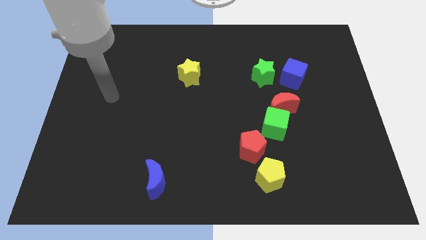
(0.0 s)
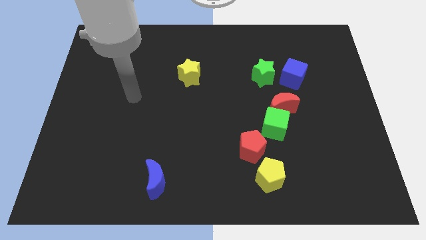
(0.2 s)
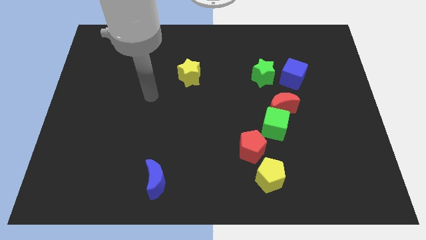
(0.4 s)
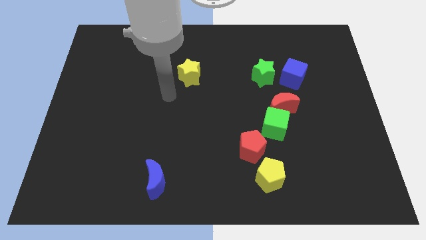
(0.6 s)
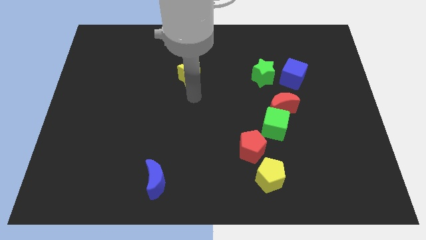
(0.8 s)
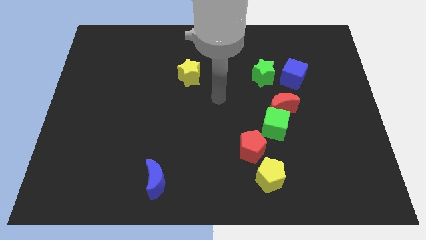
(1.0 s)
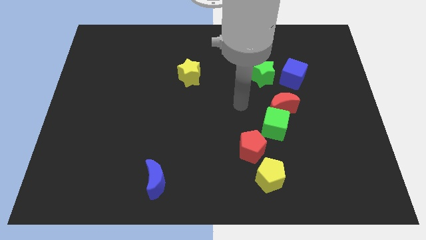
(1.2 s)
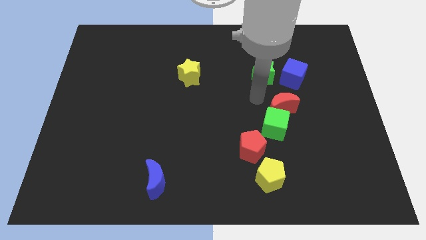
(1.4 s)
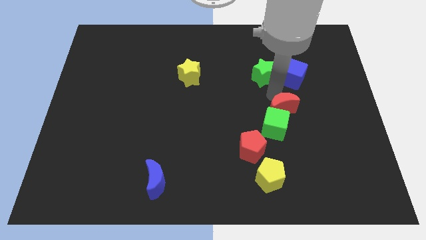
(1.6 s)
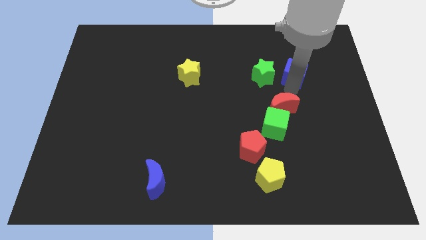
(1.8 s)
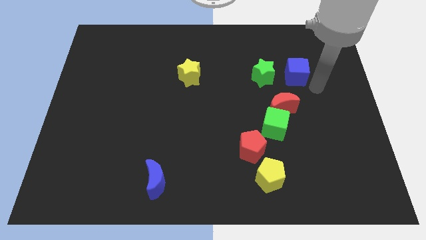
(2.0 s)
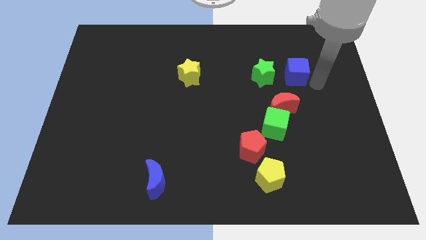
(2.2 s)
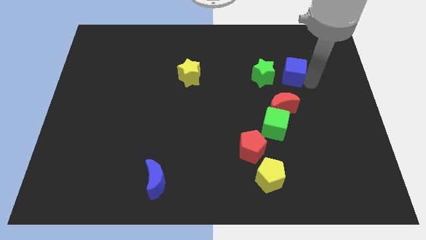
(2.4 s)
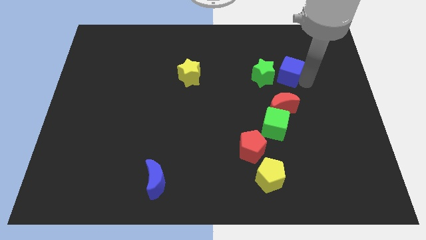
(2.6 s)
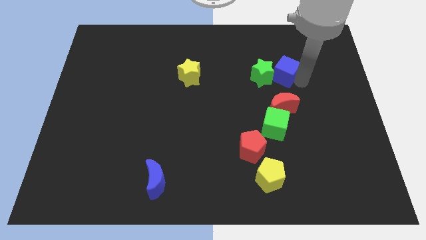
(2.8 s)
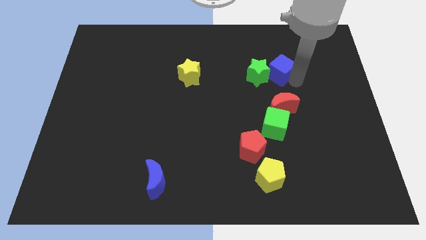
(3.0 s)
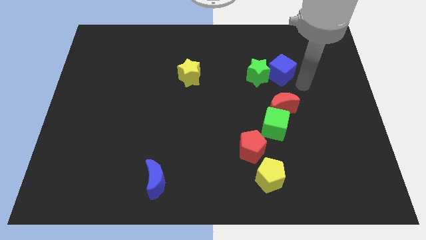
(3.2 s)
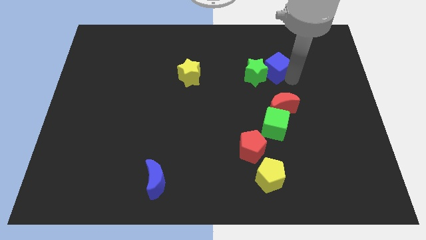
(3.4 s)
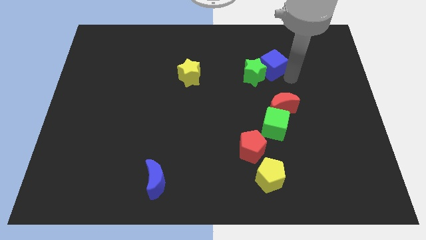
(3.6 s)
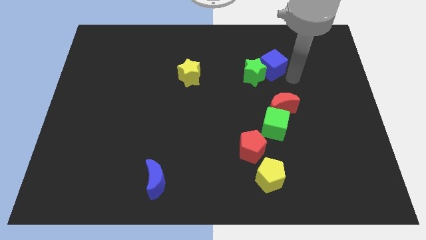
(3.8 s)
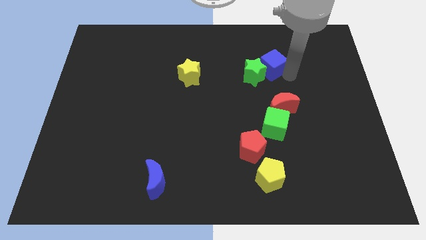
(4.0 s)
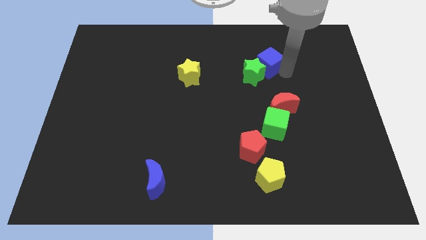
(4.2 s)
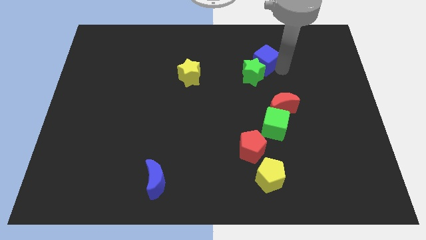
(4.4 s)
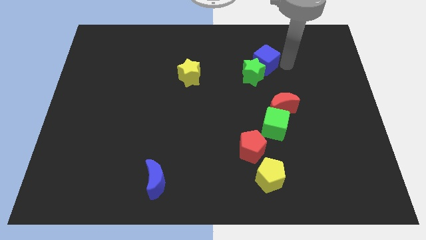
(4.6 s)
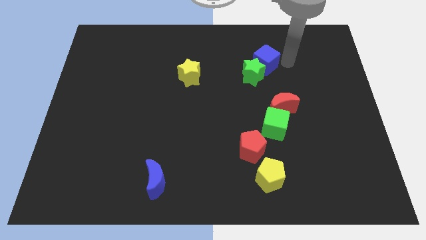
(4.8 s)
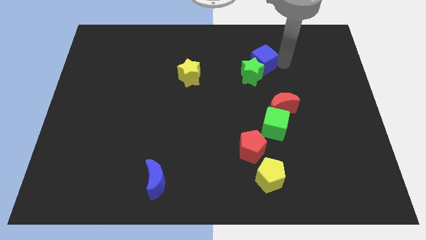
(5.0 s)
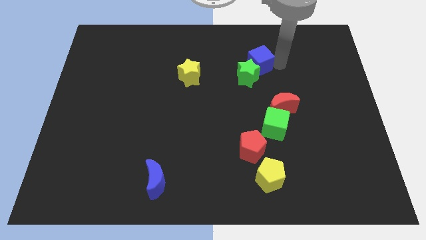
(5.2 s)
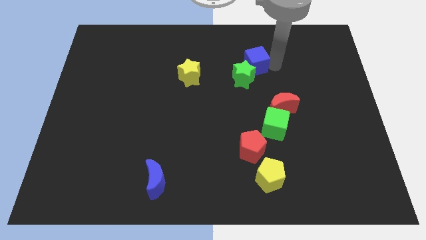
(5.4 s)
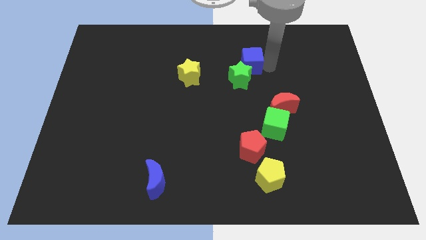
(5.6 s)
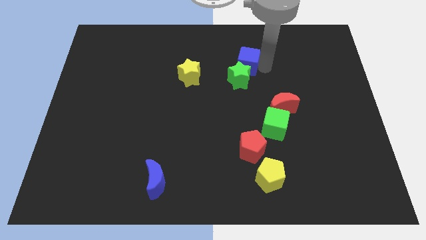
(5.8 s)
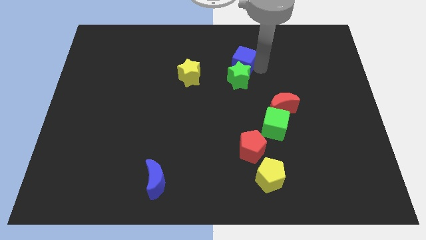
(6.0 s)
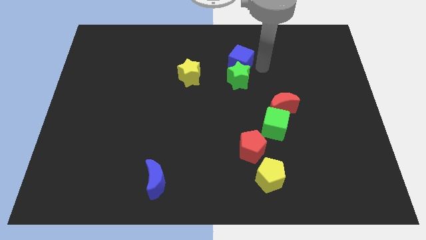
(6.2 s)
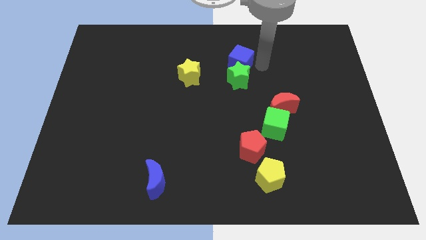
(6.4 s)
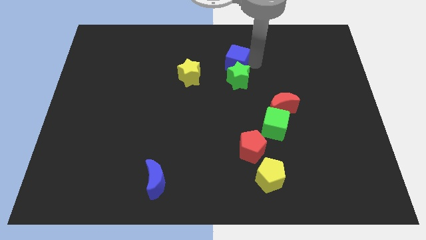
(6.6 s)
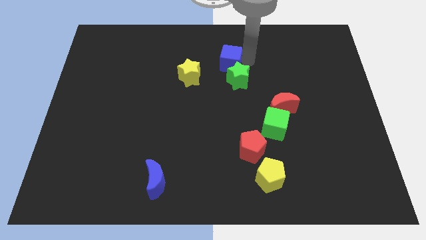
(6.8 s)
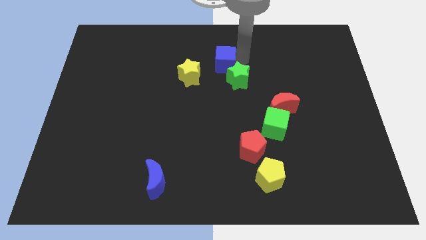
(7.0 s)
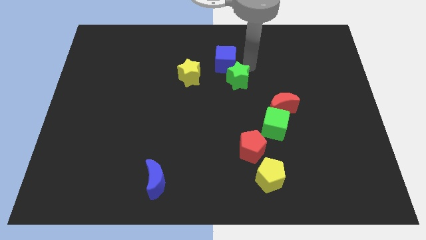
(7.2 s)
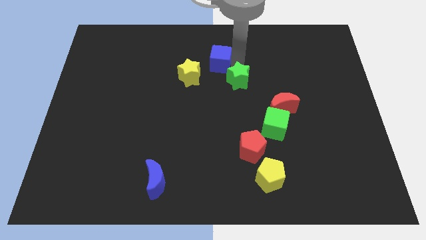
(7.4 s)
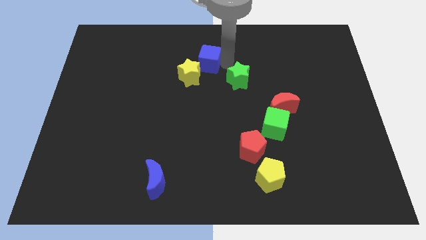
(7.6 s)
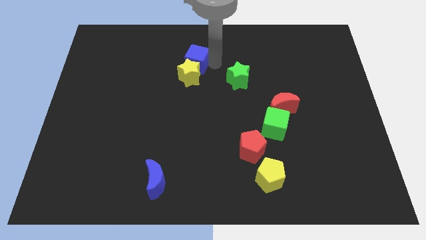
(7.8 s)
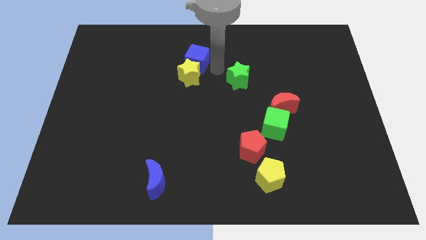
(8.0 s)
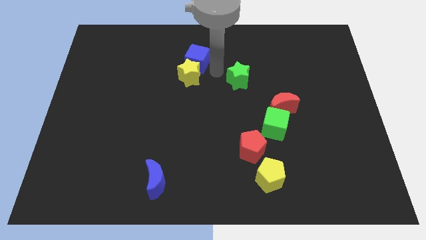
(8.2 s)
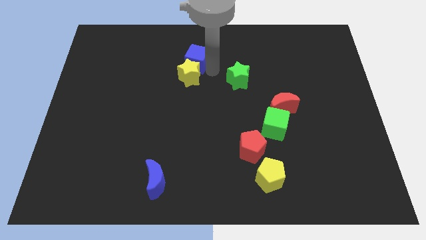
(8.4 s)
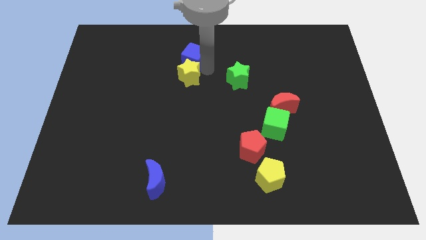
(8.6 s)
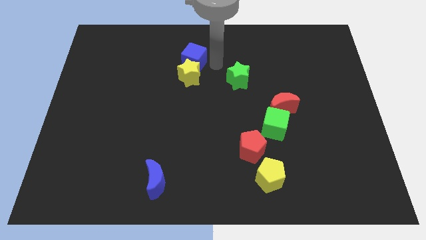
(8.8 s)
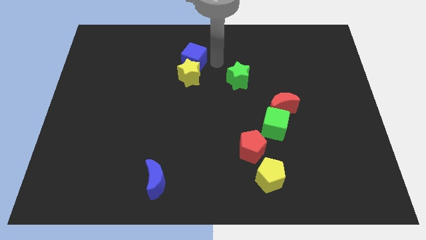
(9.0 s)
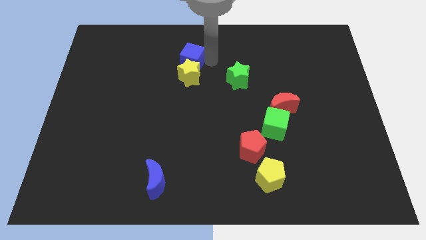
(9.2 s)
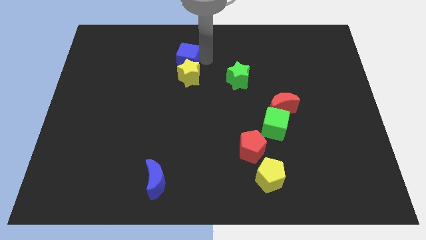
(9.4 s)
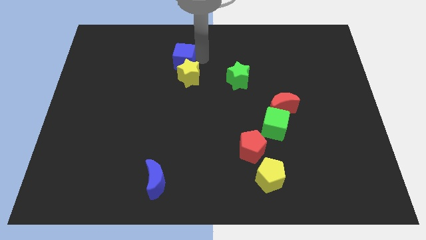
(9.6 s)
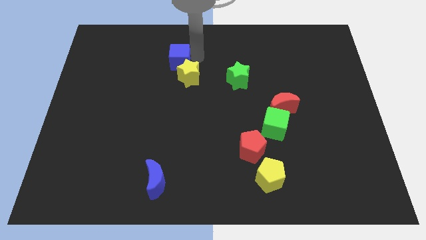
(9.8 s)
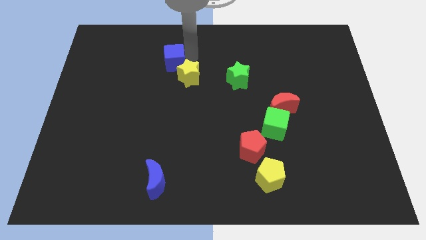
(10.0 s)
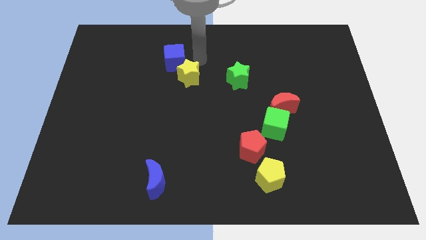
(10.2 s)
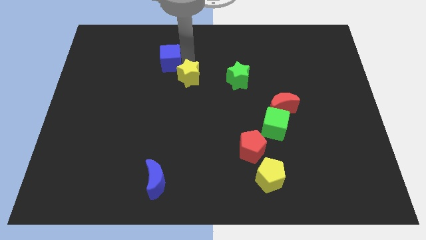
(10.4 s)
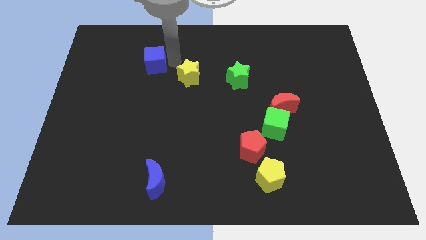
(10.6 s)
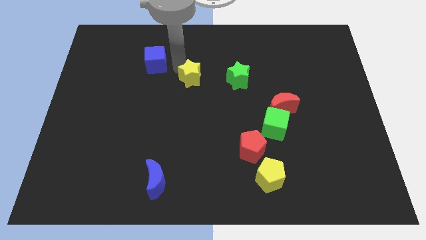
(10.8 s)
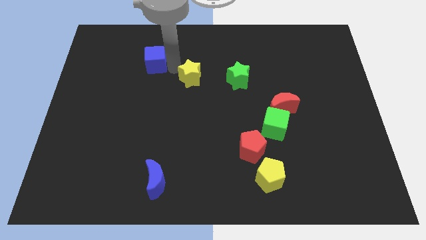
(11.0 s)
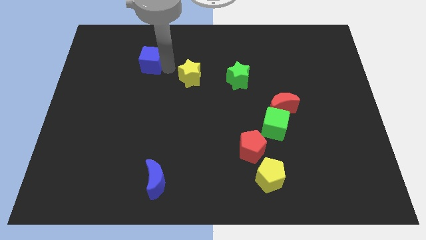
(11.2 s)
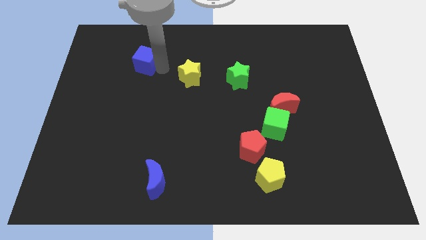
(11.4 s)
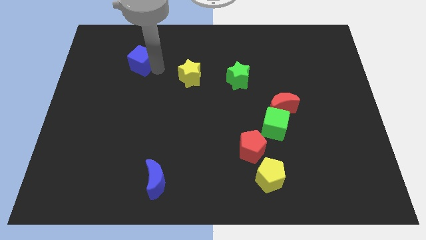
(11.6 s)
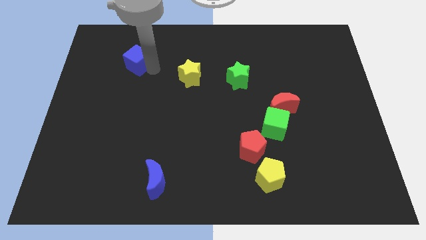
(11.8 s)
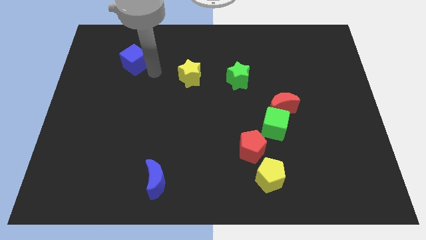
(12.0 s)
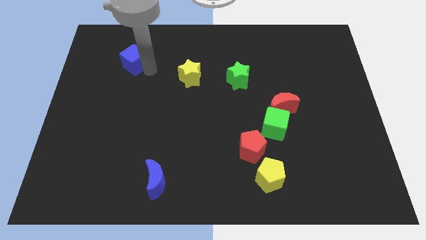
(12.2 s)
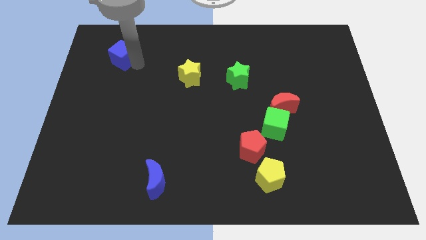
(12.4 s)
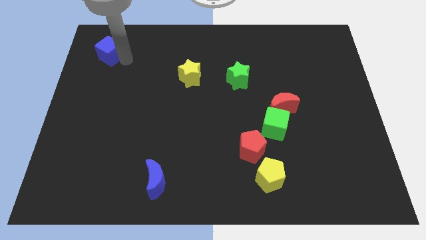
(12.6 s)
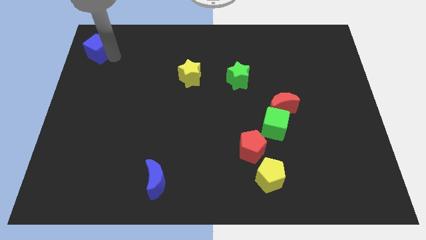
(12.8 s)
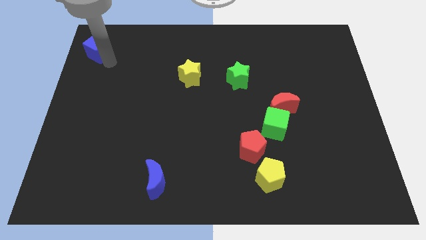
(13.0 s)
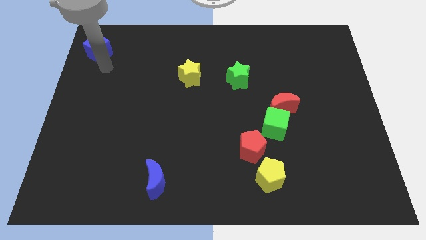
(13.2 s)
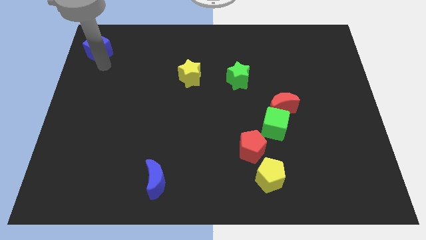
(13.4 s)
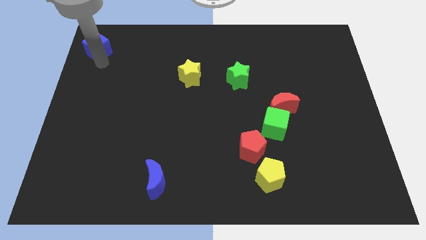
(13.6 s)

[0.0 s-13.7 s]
push the blue cube to the top left
